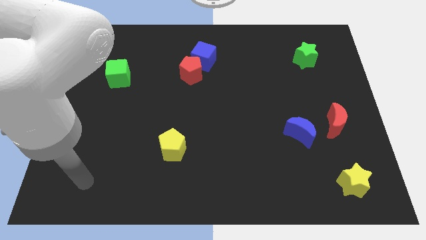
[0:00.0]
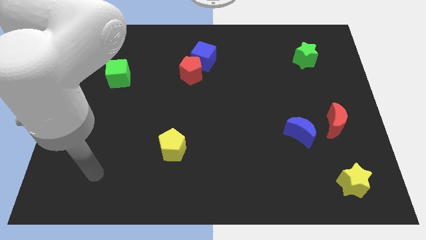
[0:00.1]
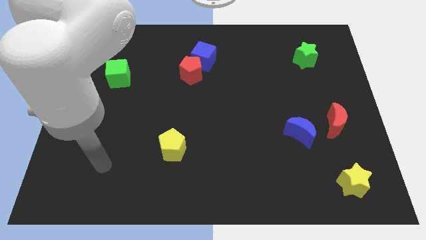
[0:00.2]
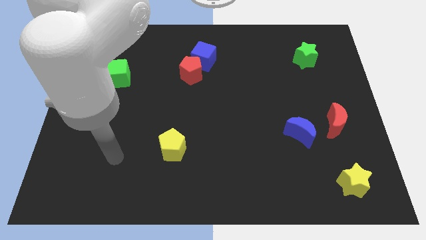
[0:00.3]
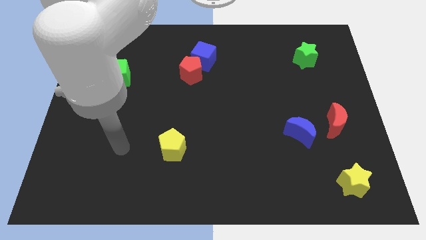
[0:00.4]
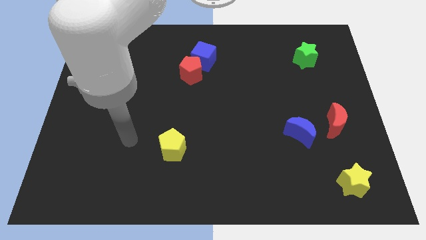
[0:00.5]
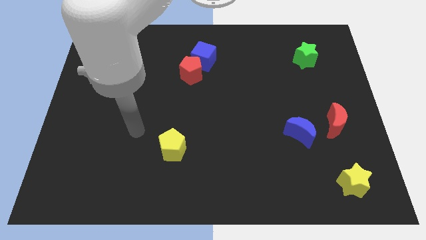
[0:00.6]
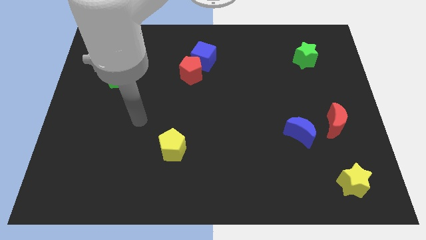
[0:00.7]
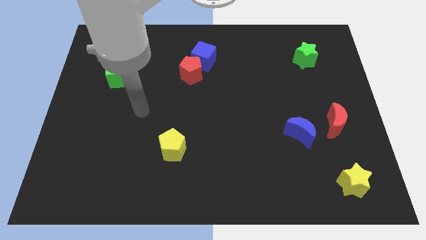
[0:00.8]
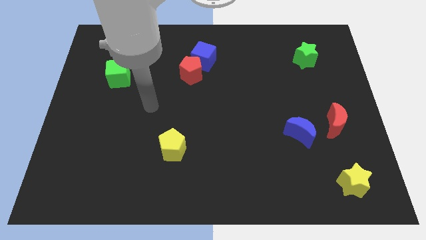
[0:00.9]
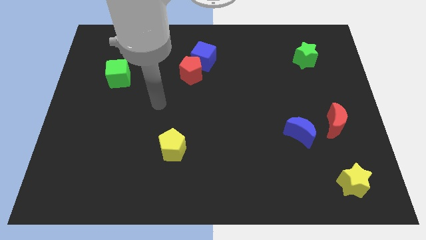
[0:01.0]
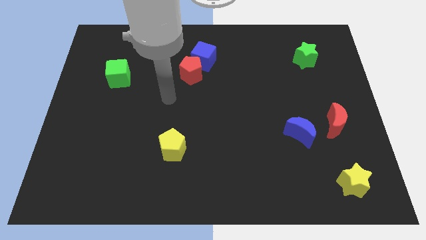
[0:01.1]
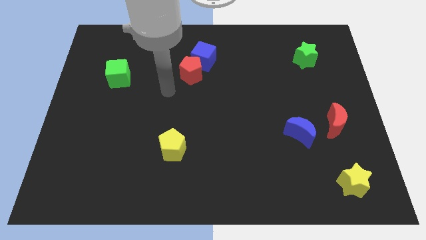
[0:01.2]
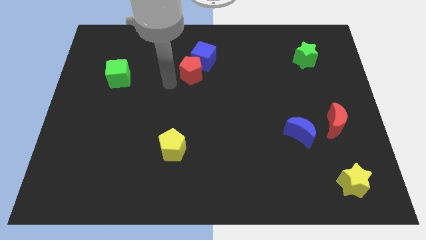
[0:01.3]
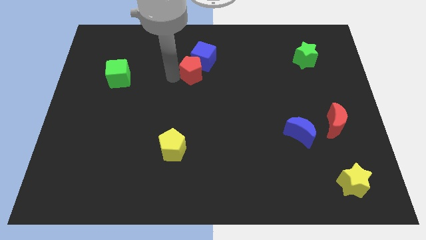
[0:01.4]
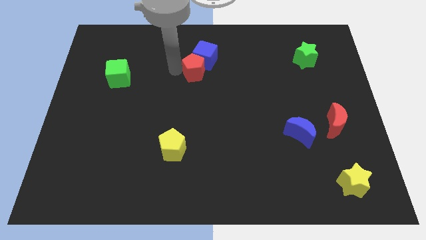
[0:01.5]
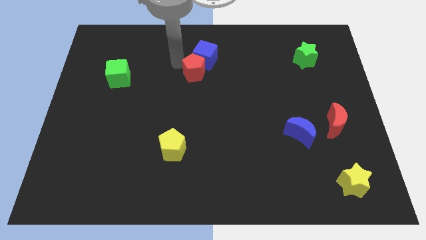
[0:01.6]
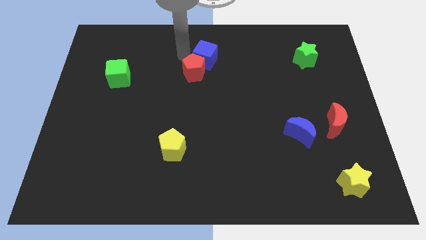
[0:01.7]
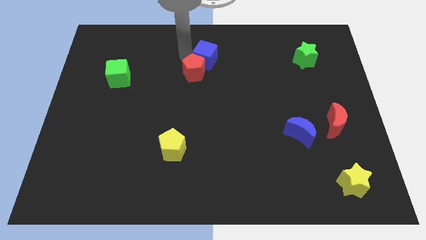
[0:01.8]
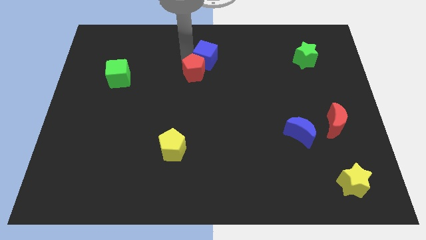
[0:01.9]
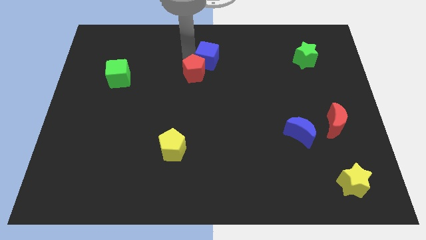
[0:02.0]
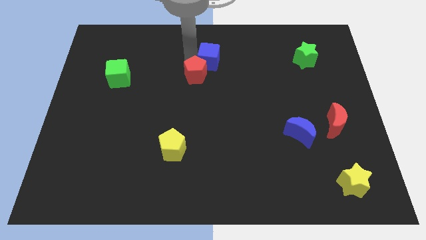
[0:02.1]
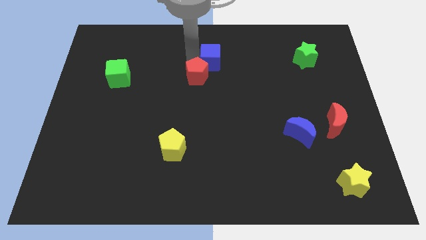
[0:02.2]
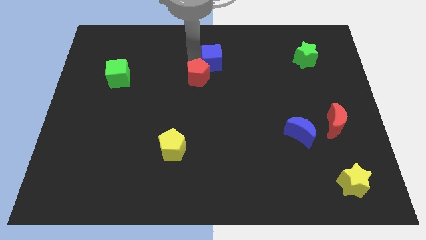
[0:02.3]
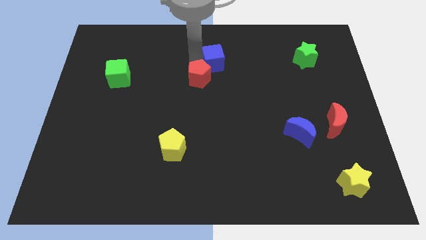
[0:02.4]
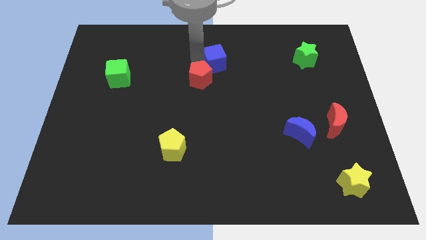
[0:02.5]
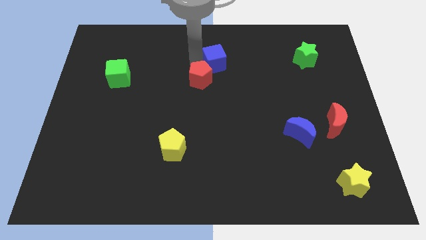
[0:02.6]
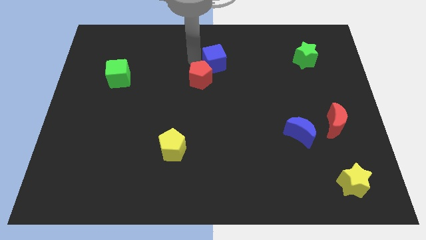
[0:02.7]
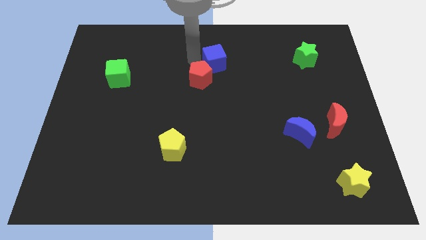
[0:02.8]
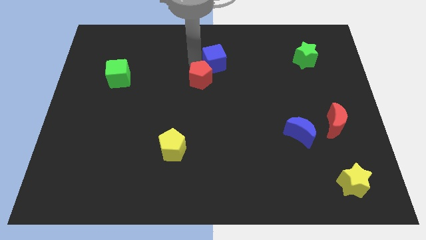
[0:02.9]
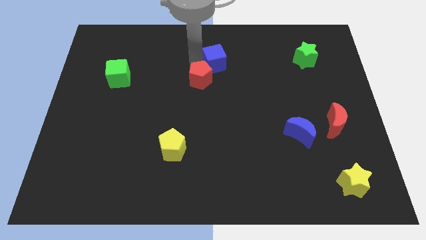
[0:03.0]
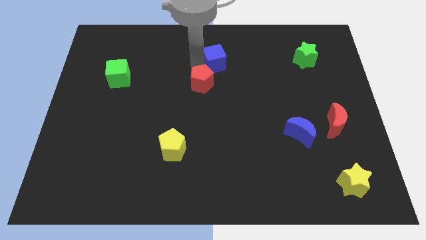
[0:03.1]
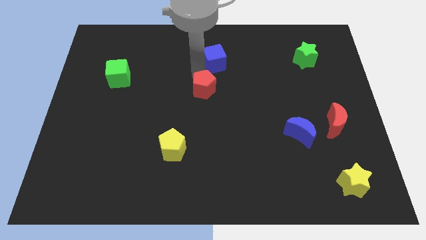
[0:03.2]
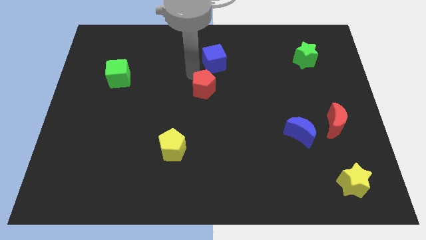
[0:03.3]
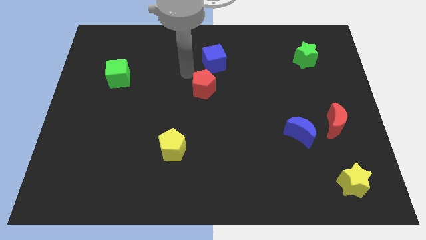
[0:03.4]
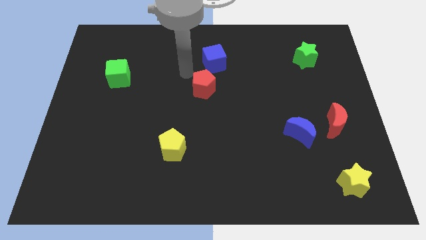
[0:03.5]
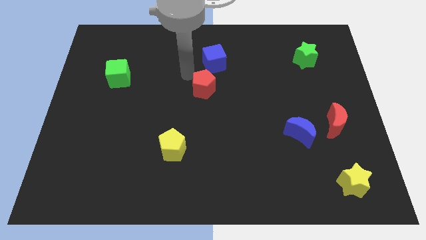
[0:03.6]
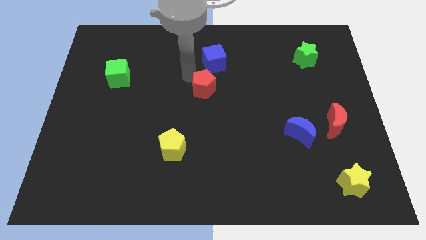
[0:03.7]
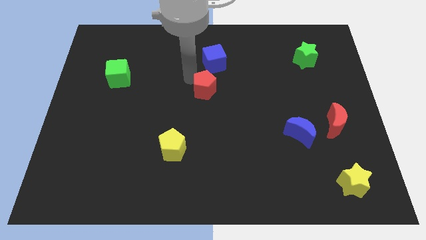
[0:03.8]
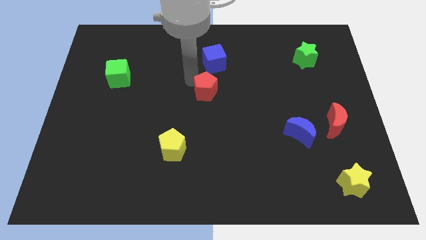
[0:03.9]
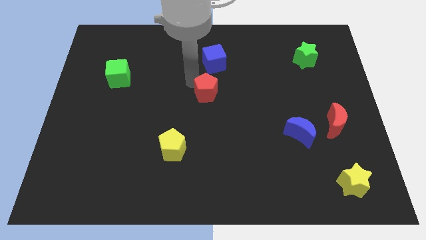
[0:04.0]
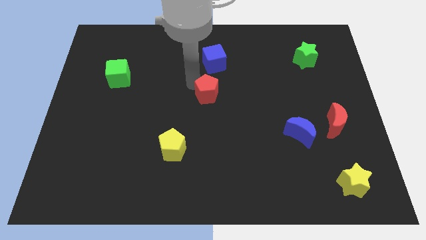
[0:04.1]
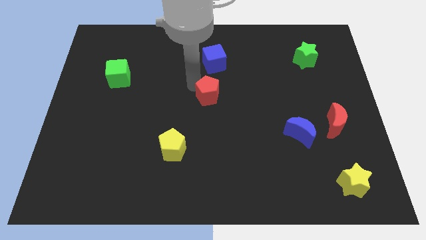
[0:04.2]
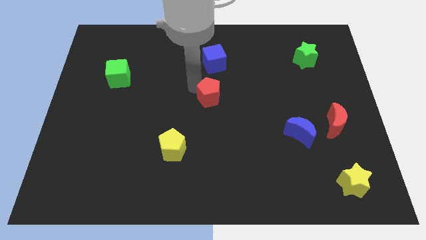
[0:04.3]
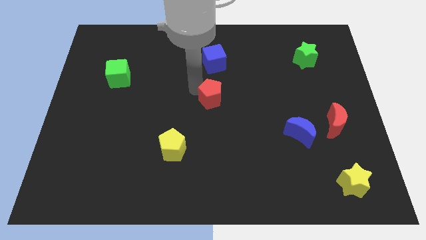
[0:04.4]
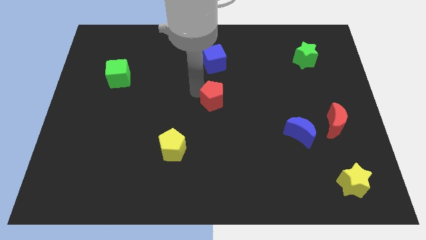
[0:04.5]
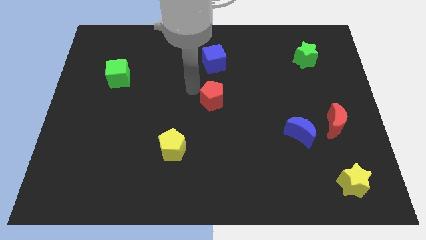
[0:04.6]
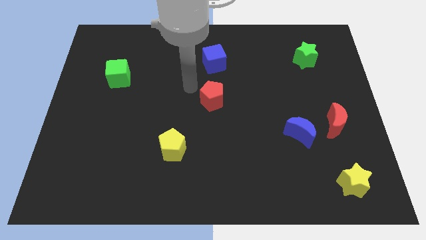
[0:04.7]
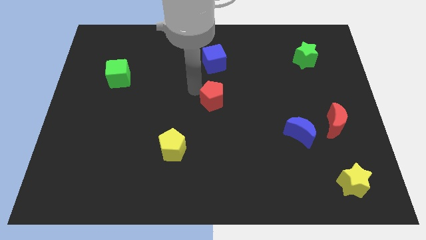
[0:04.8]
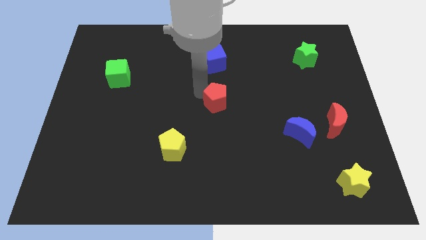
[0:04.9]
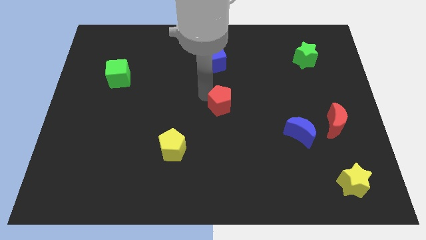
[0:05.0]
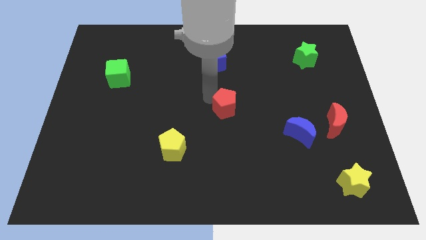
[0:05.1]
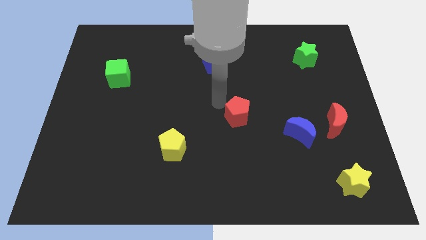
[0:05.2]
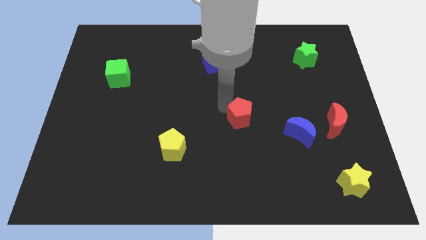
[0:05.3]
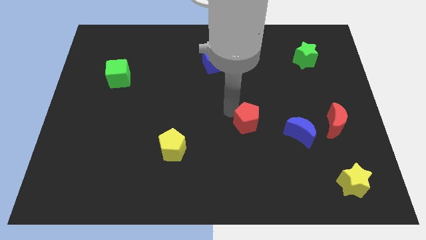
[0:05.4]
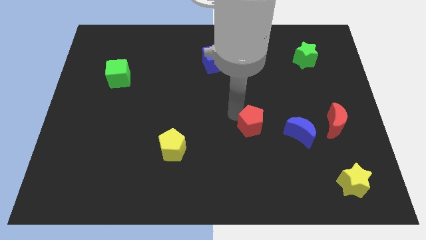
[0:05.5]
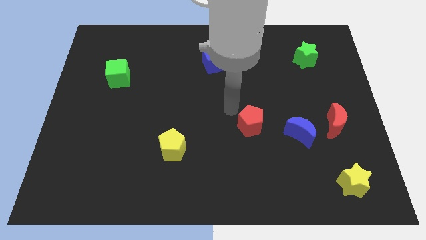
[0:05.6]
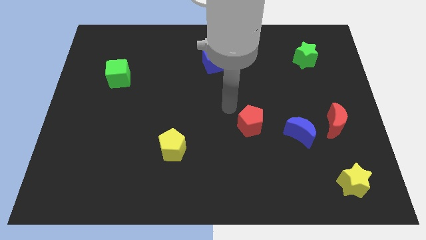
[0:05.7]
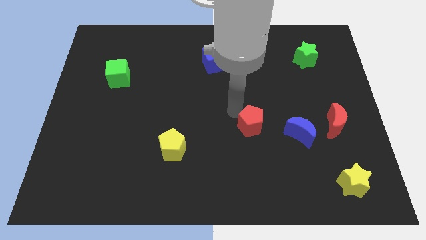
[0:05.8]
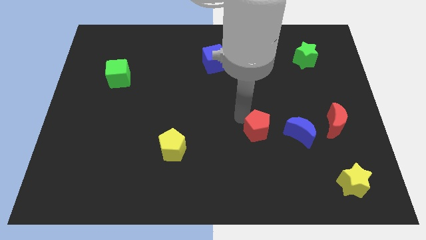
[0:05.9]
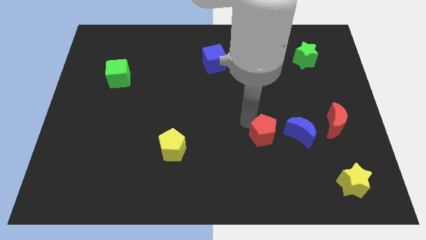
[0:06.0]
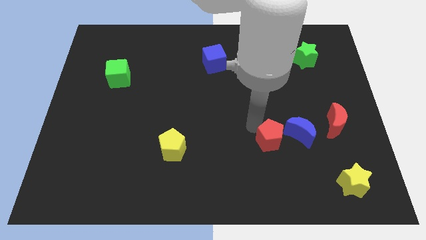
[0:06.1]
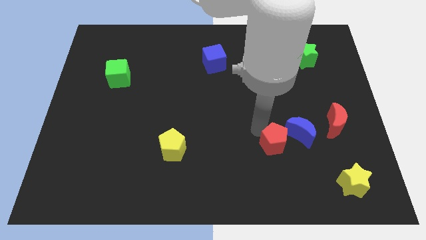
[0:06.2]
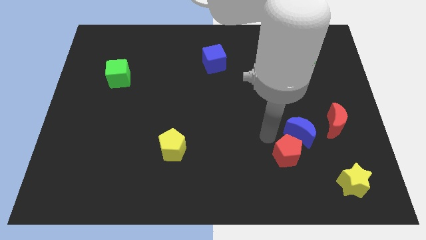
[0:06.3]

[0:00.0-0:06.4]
push the red pentagon to the bottom of the blue moon

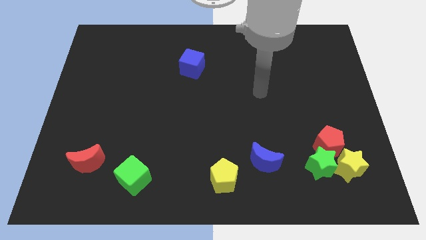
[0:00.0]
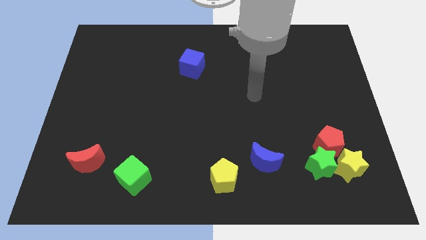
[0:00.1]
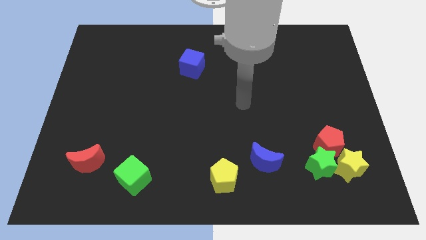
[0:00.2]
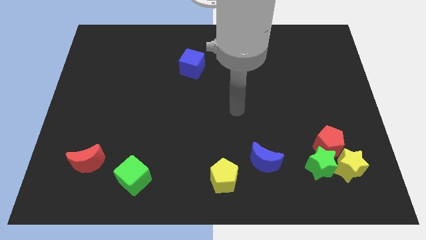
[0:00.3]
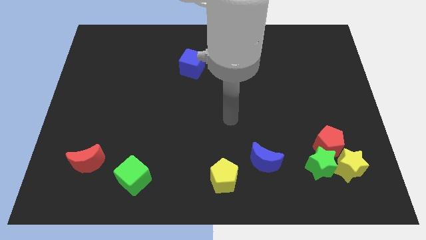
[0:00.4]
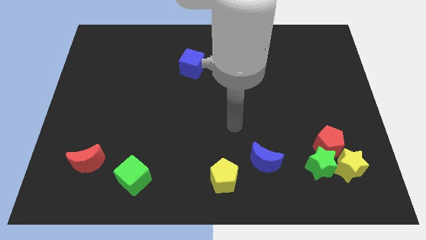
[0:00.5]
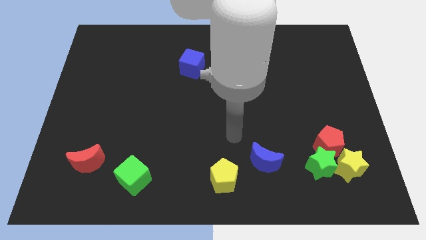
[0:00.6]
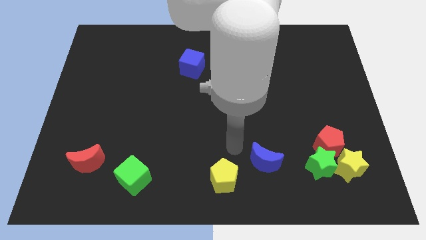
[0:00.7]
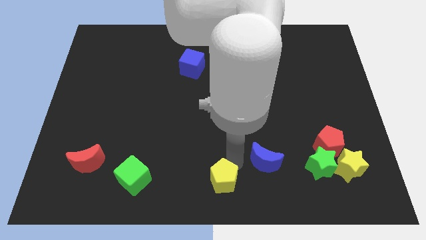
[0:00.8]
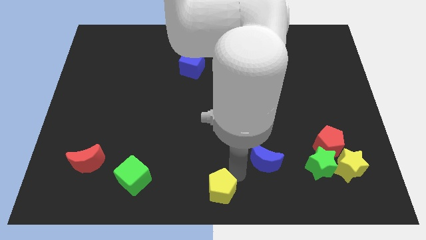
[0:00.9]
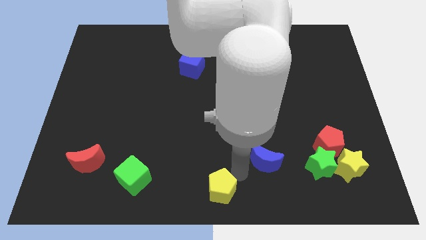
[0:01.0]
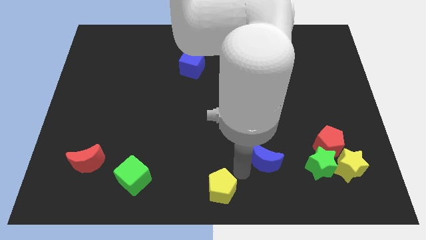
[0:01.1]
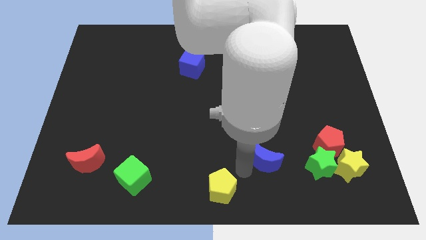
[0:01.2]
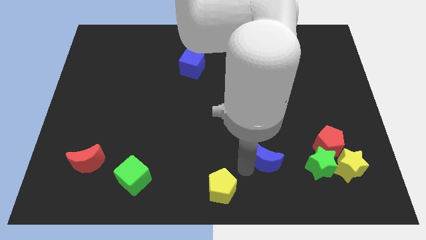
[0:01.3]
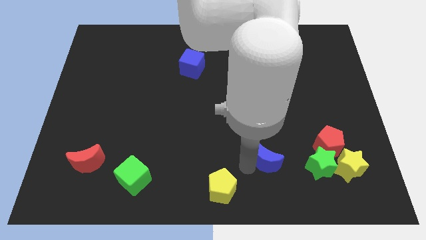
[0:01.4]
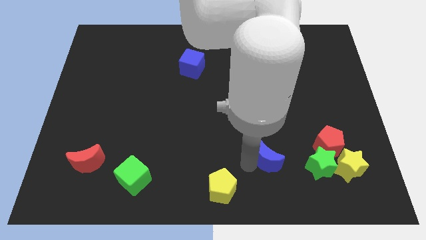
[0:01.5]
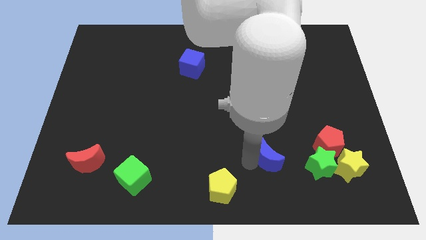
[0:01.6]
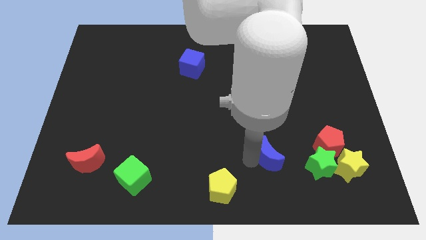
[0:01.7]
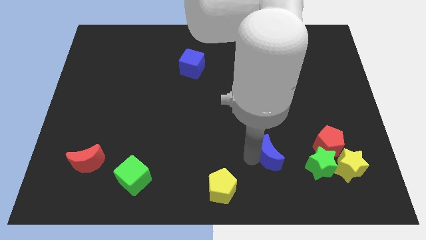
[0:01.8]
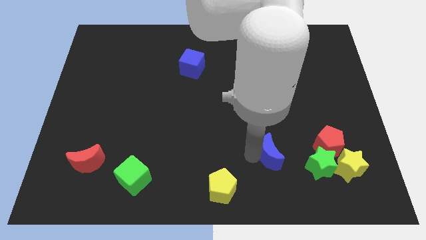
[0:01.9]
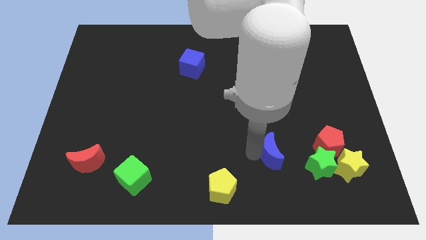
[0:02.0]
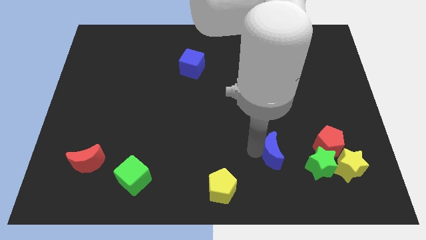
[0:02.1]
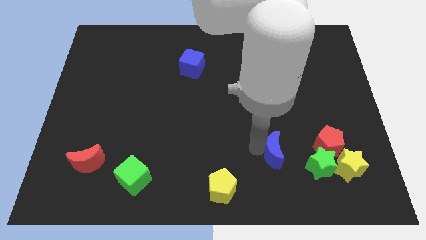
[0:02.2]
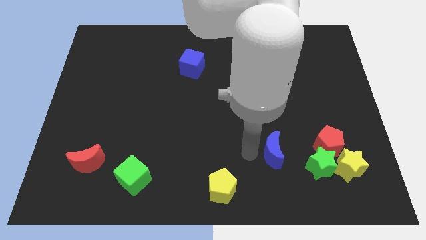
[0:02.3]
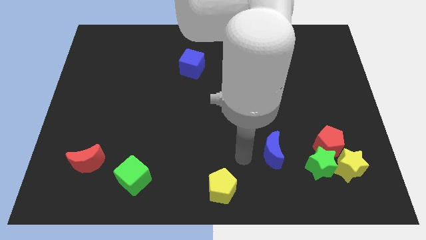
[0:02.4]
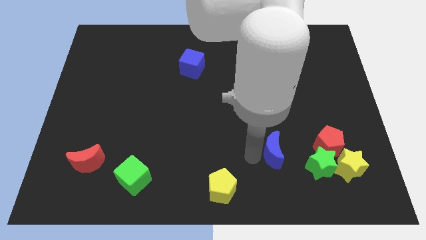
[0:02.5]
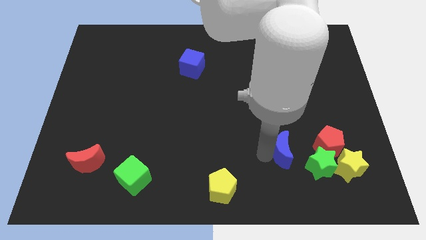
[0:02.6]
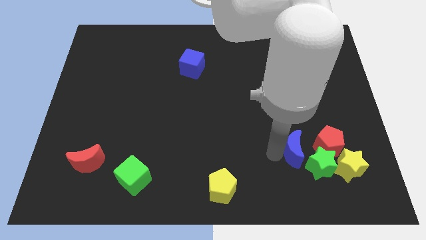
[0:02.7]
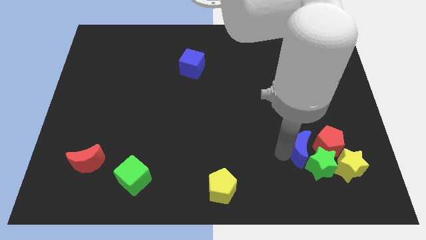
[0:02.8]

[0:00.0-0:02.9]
move the blue moon to the top left of the yellow star
